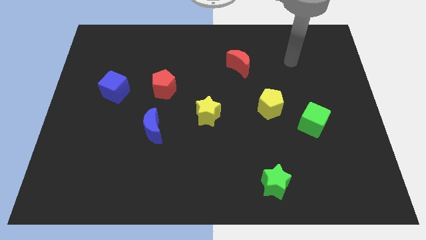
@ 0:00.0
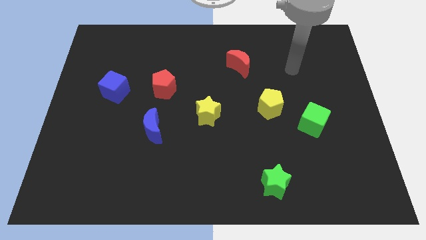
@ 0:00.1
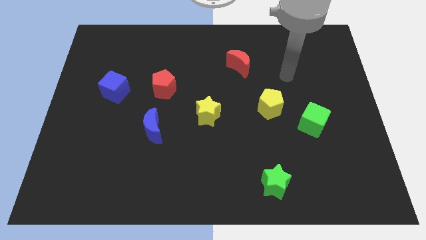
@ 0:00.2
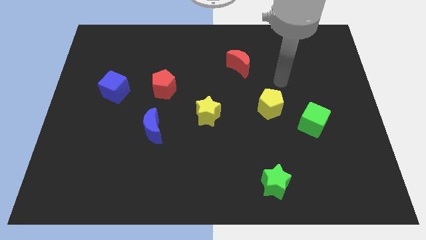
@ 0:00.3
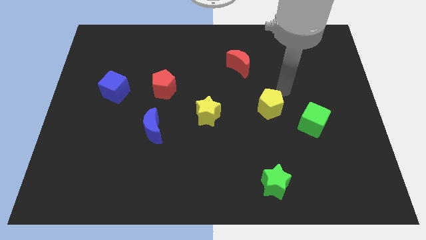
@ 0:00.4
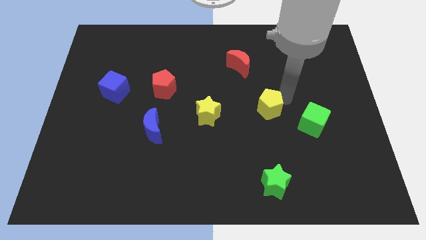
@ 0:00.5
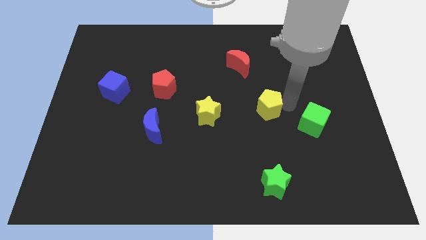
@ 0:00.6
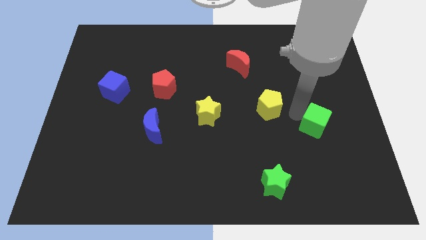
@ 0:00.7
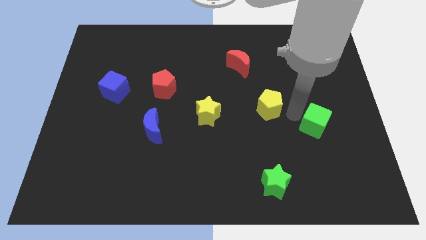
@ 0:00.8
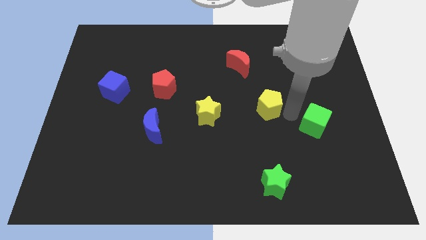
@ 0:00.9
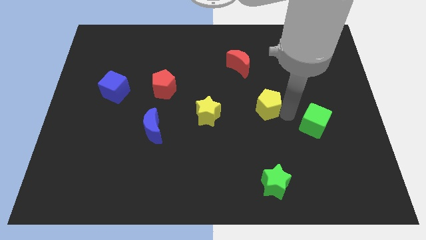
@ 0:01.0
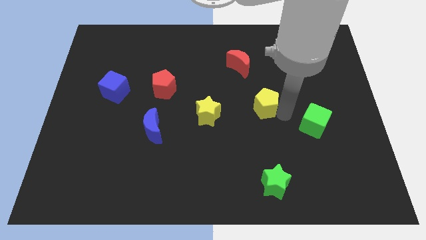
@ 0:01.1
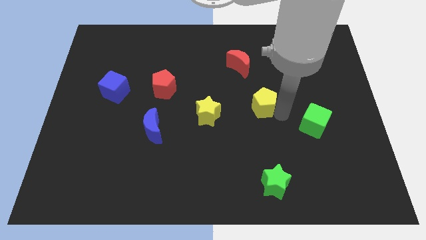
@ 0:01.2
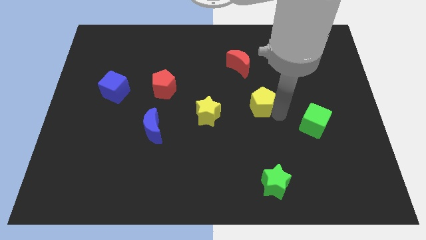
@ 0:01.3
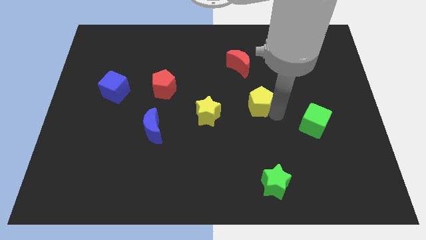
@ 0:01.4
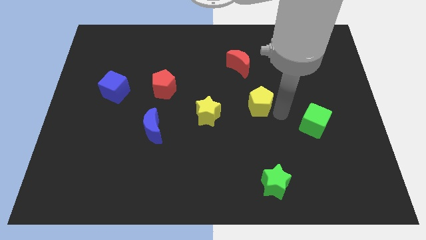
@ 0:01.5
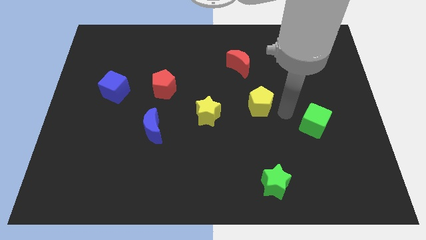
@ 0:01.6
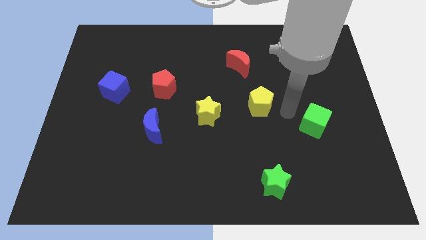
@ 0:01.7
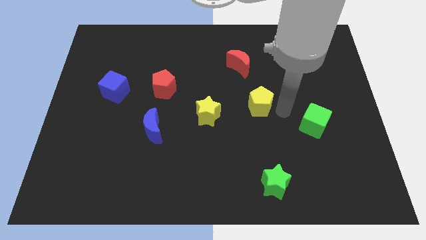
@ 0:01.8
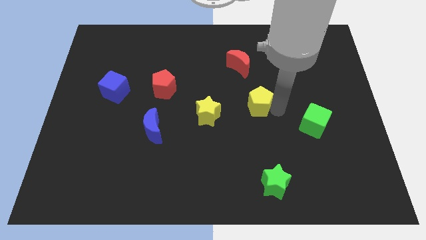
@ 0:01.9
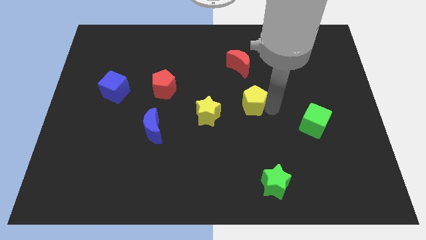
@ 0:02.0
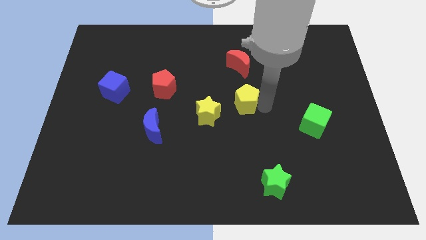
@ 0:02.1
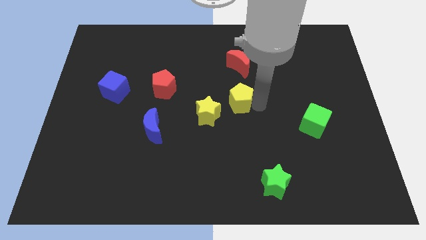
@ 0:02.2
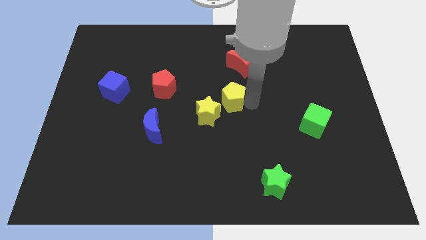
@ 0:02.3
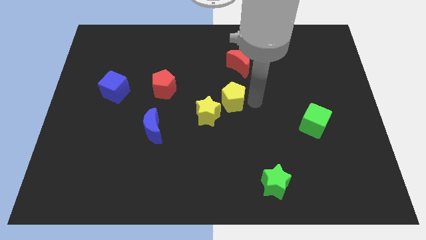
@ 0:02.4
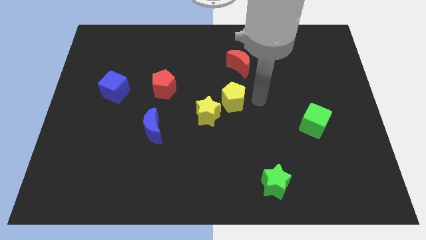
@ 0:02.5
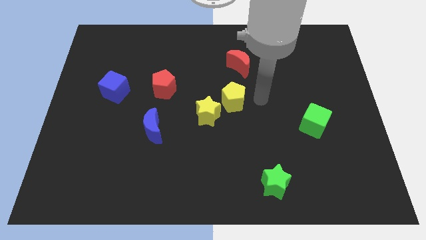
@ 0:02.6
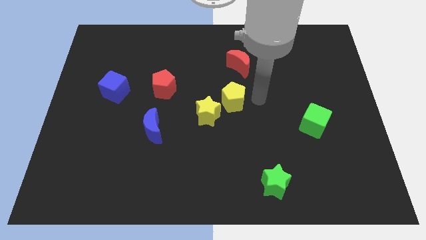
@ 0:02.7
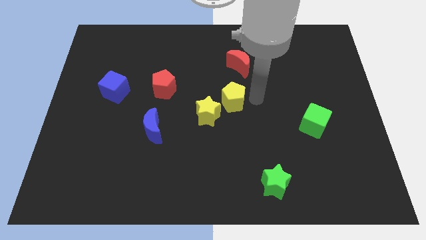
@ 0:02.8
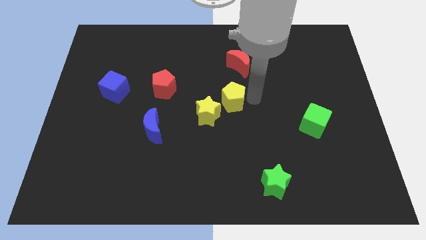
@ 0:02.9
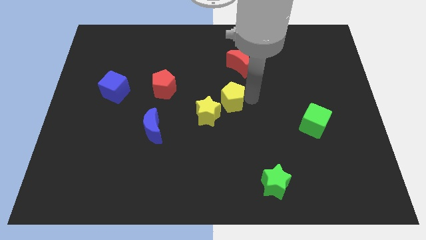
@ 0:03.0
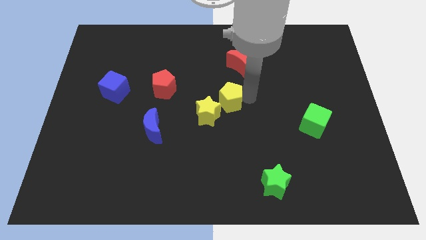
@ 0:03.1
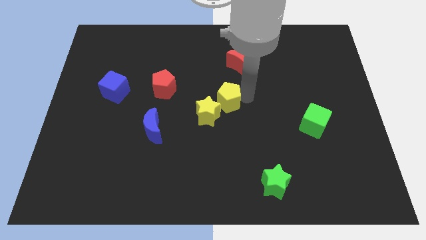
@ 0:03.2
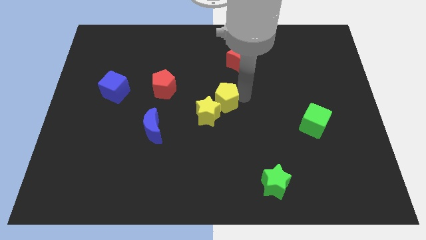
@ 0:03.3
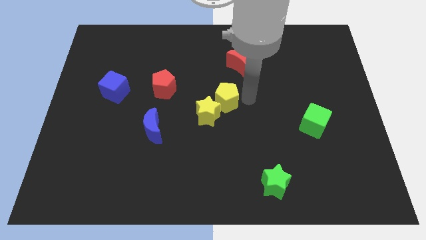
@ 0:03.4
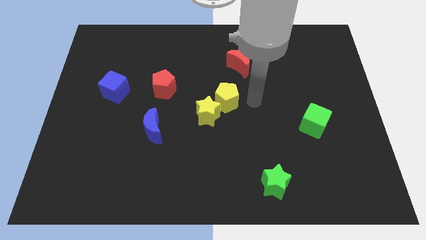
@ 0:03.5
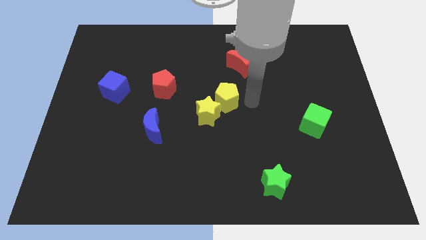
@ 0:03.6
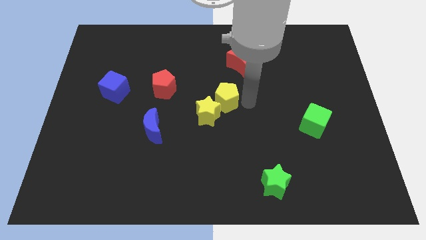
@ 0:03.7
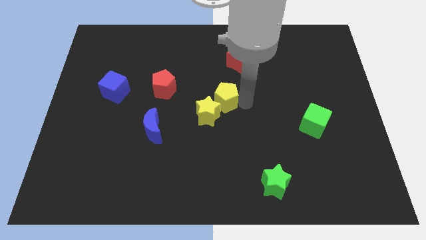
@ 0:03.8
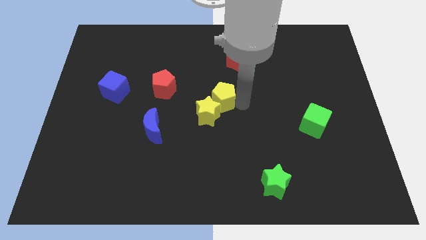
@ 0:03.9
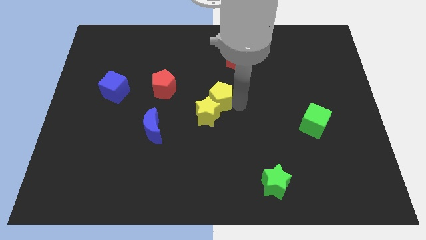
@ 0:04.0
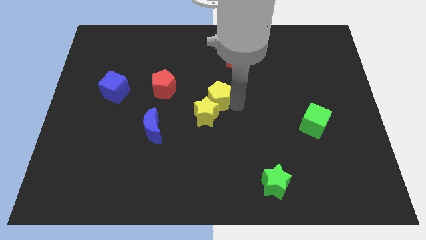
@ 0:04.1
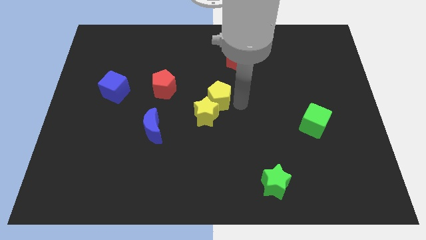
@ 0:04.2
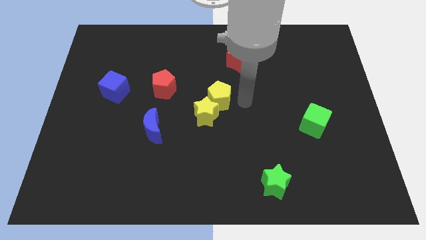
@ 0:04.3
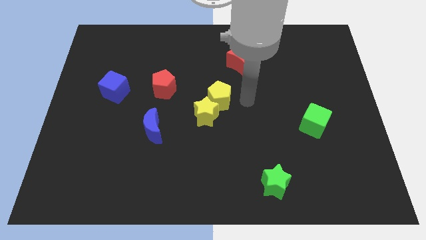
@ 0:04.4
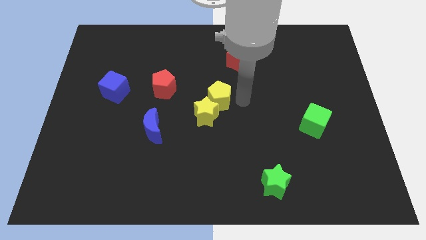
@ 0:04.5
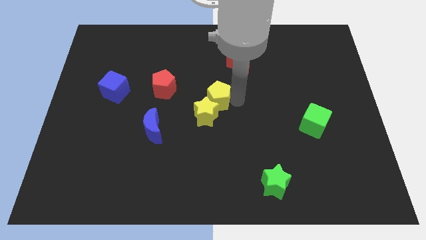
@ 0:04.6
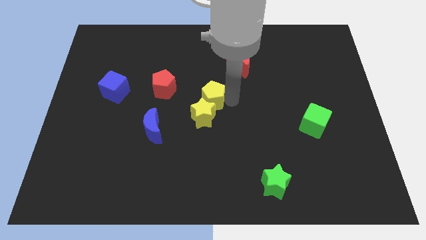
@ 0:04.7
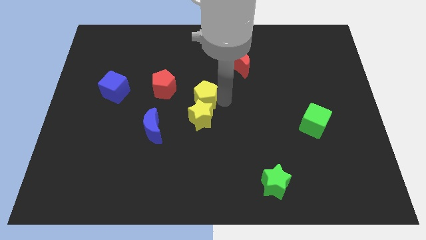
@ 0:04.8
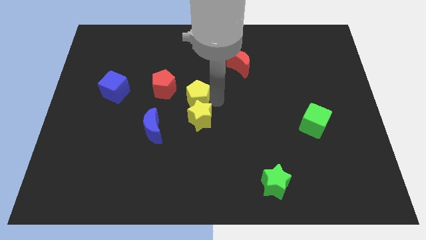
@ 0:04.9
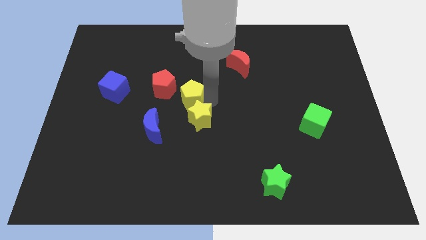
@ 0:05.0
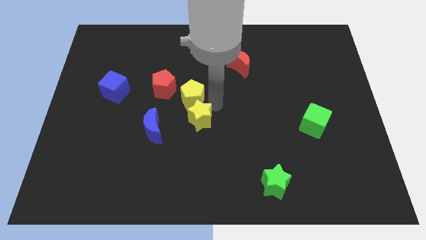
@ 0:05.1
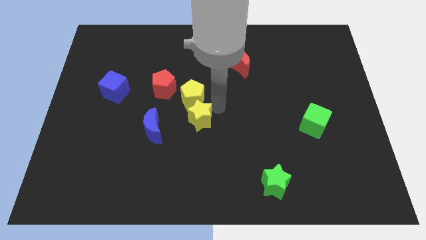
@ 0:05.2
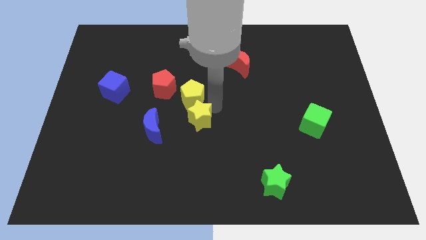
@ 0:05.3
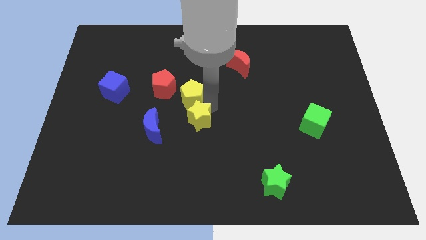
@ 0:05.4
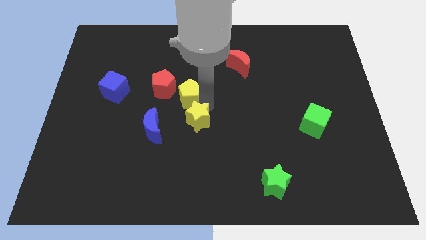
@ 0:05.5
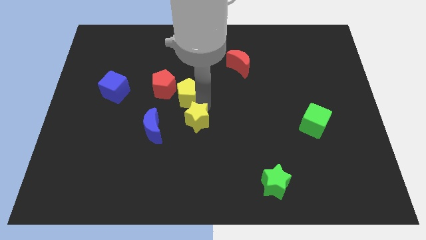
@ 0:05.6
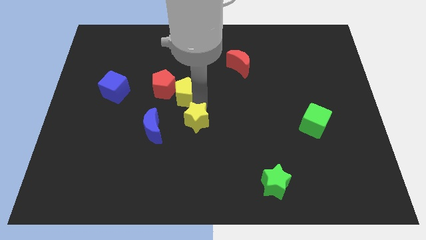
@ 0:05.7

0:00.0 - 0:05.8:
slide the yellow pentagon towards the red pentagon

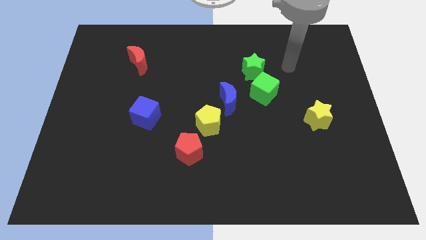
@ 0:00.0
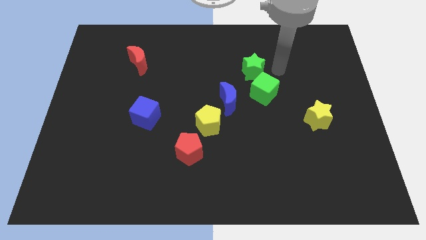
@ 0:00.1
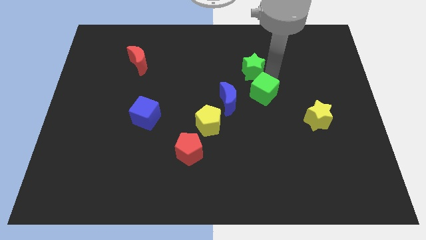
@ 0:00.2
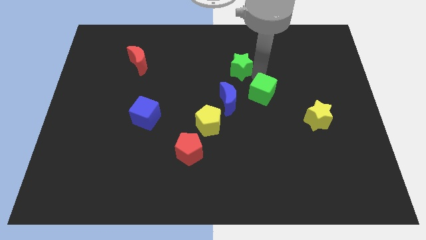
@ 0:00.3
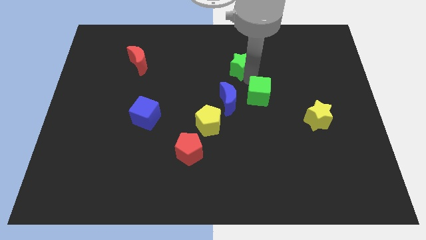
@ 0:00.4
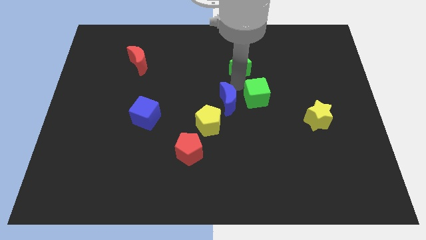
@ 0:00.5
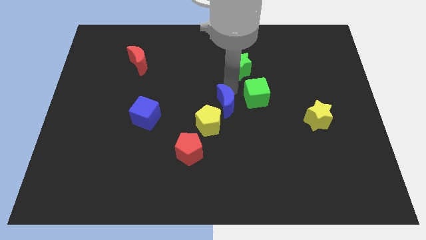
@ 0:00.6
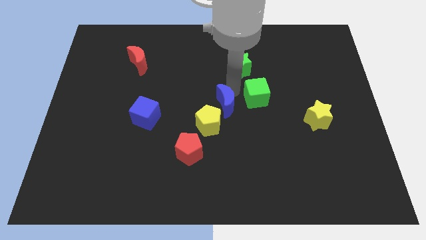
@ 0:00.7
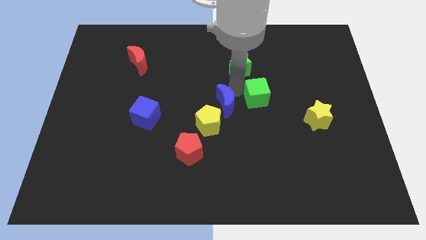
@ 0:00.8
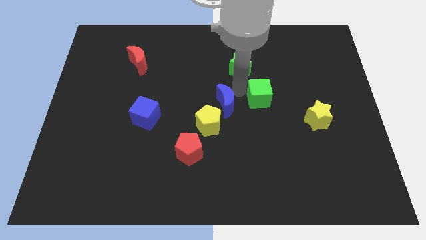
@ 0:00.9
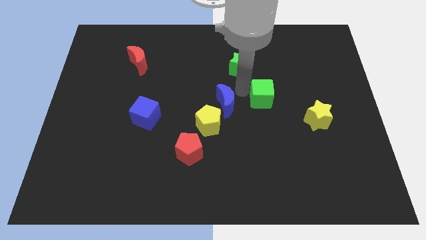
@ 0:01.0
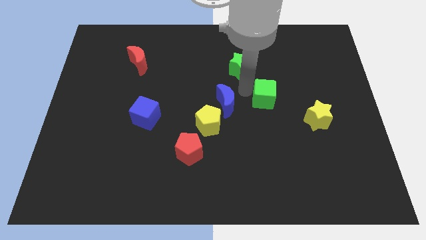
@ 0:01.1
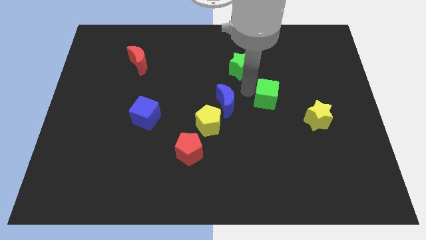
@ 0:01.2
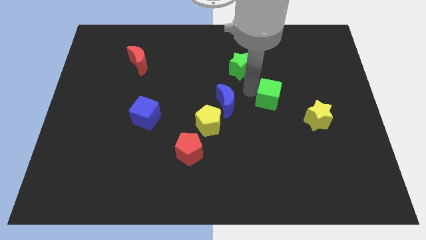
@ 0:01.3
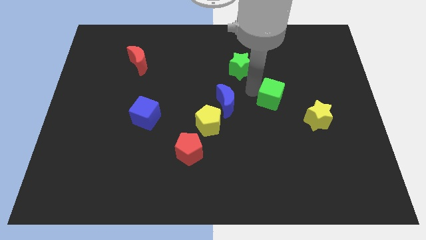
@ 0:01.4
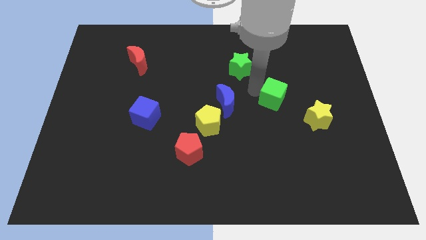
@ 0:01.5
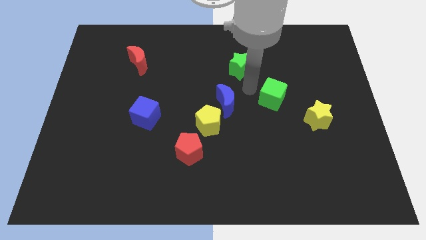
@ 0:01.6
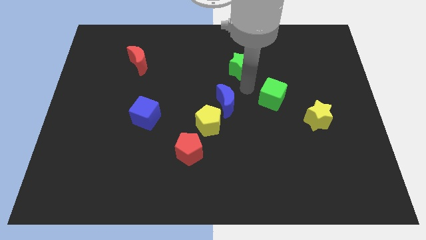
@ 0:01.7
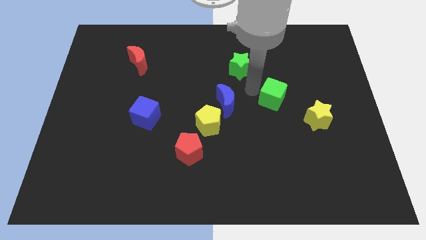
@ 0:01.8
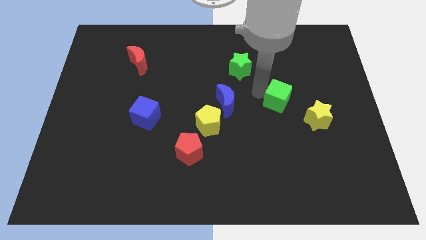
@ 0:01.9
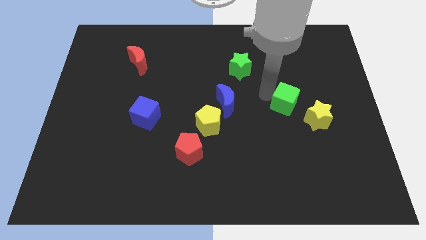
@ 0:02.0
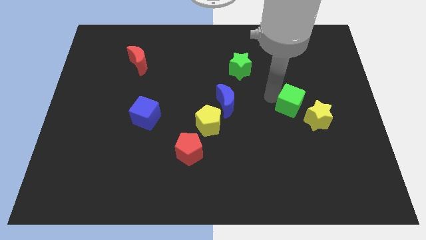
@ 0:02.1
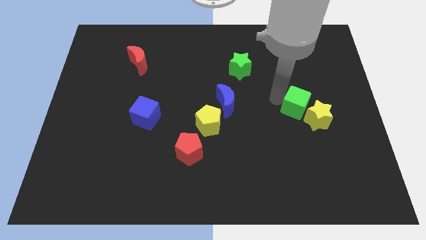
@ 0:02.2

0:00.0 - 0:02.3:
push the green cube to the yellow star
